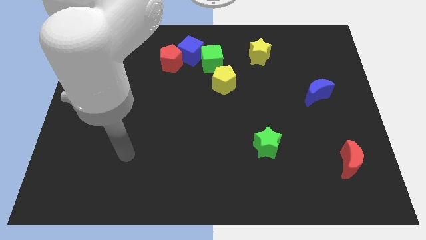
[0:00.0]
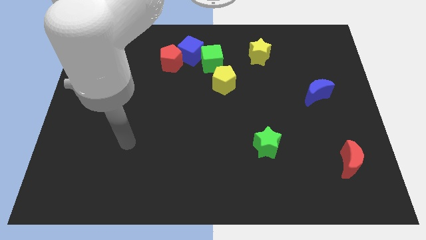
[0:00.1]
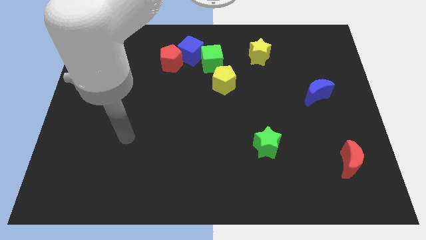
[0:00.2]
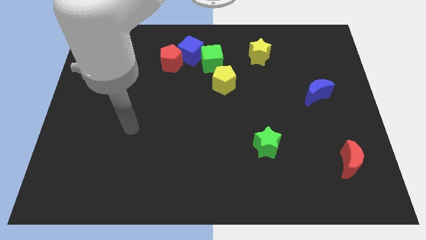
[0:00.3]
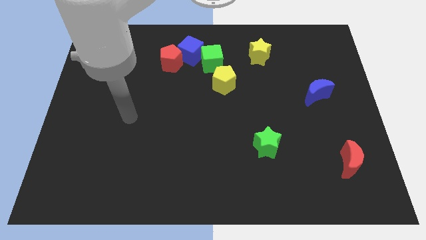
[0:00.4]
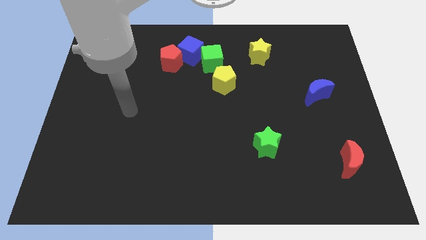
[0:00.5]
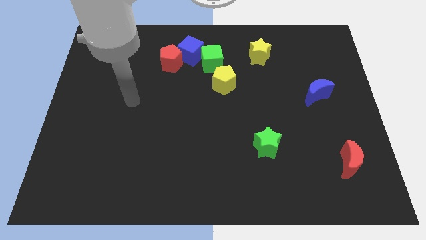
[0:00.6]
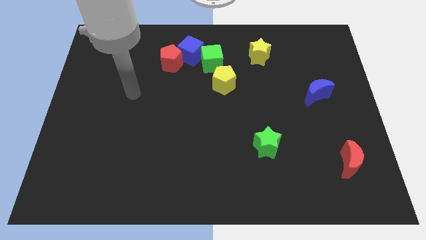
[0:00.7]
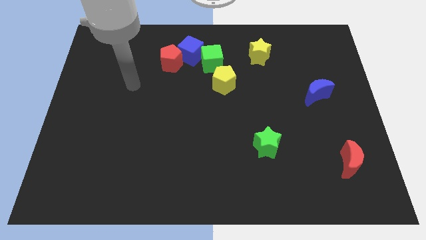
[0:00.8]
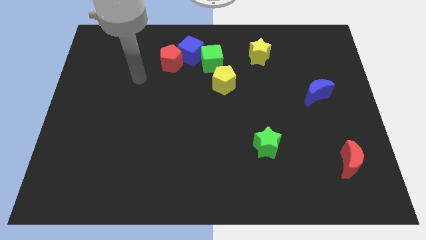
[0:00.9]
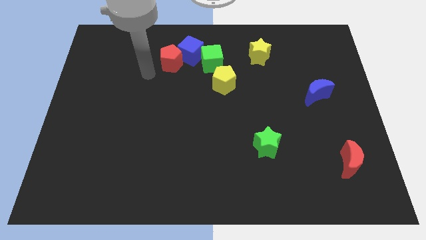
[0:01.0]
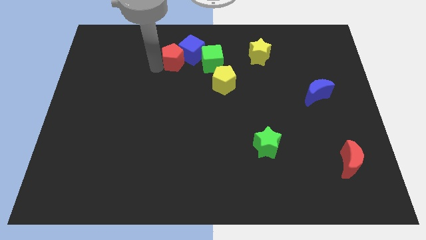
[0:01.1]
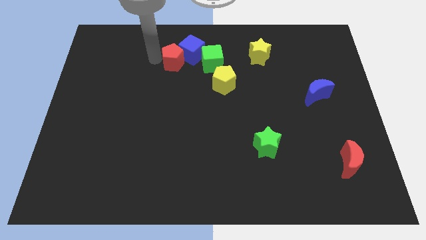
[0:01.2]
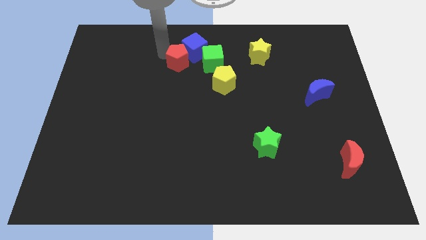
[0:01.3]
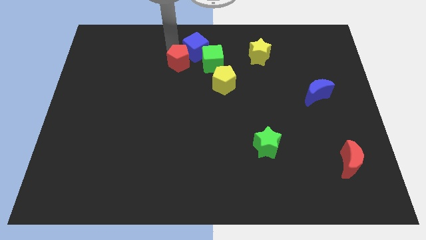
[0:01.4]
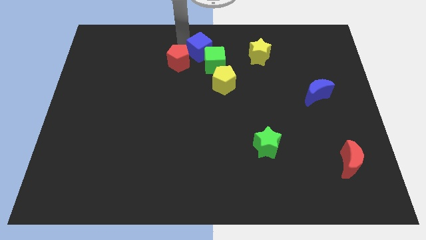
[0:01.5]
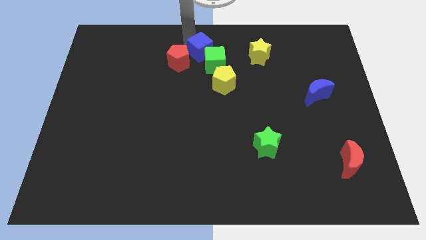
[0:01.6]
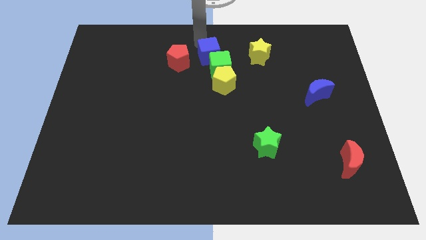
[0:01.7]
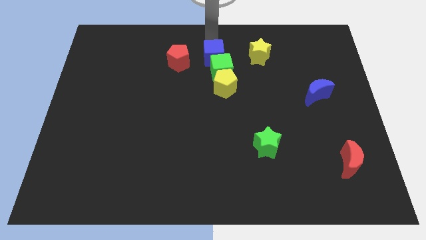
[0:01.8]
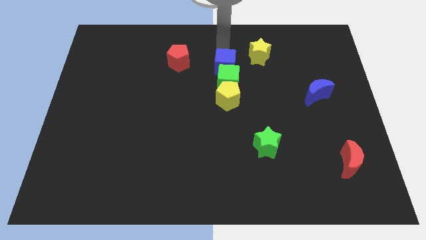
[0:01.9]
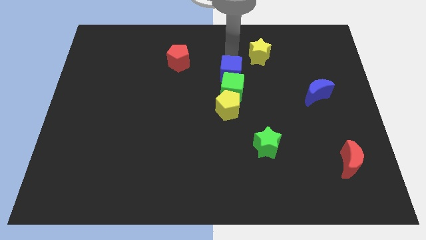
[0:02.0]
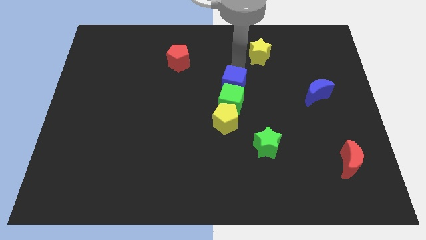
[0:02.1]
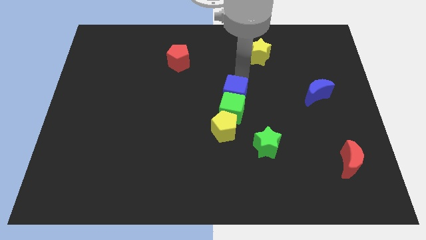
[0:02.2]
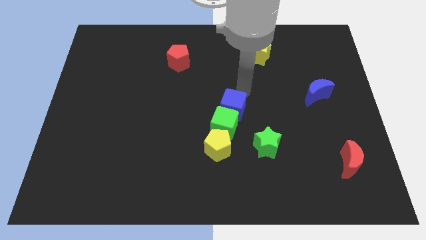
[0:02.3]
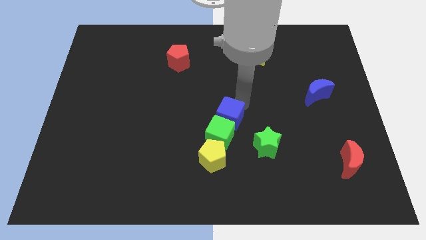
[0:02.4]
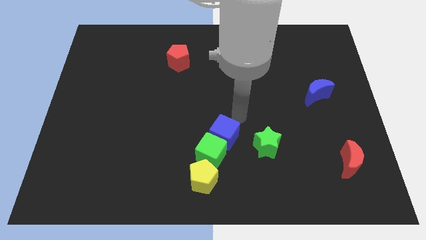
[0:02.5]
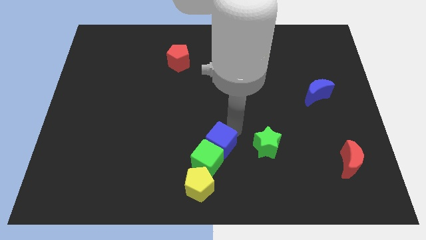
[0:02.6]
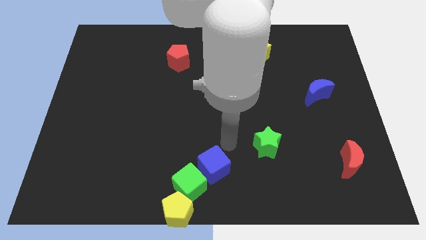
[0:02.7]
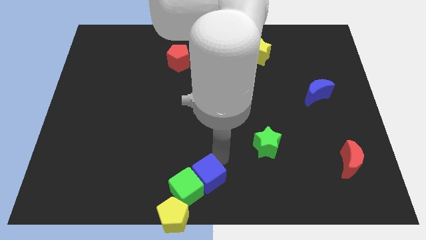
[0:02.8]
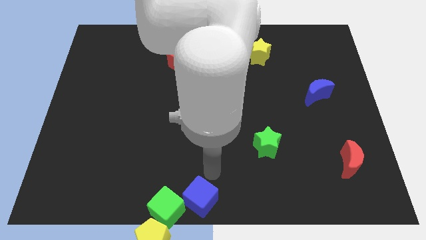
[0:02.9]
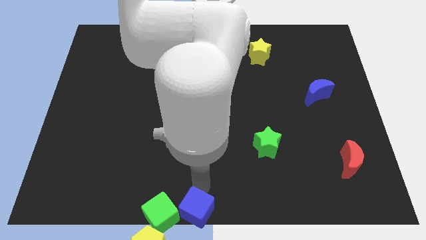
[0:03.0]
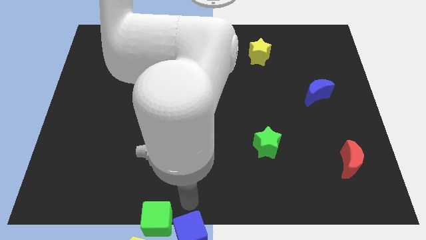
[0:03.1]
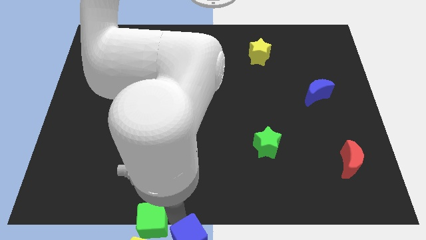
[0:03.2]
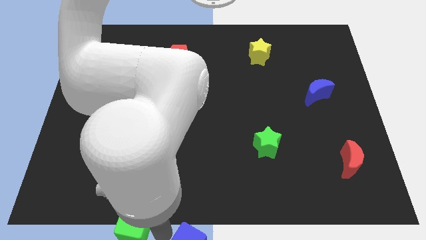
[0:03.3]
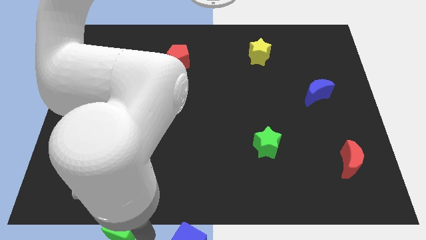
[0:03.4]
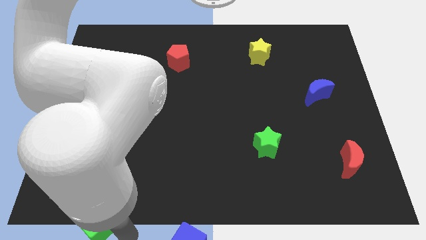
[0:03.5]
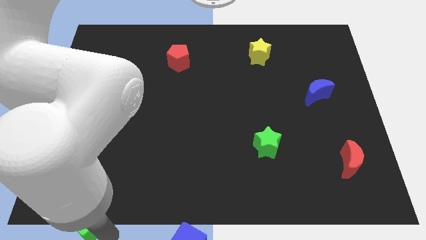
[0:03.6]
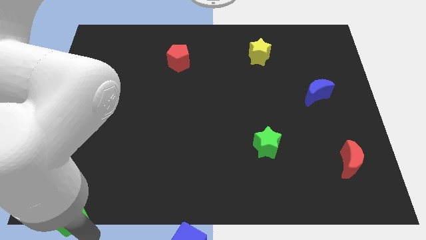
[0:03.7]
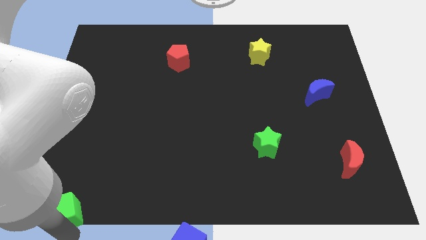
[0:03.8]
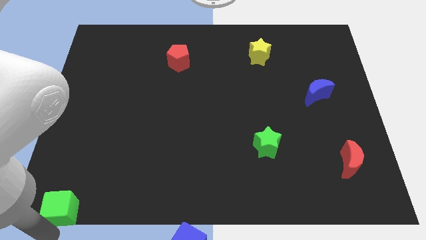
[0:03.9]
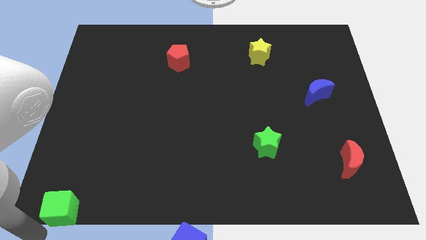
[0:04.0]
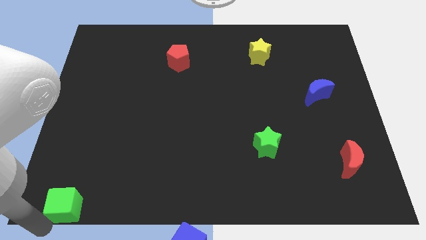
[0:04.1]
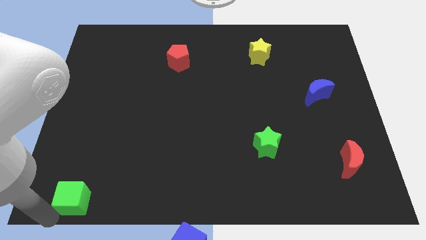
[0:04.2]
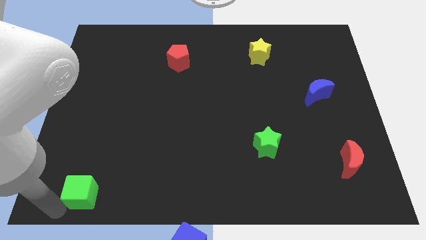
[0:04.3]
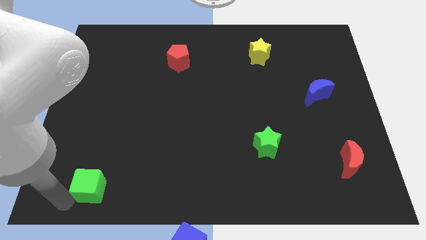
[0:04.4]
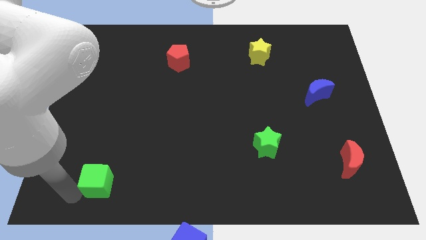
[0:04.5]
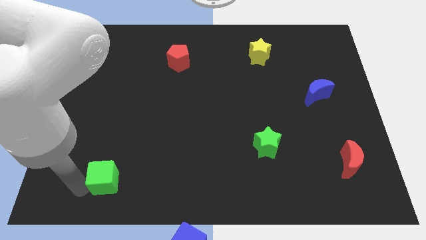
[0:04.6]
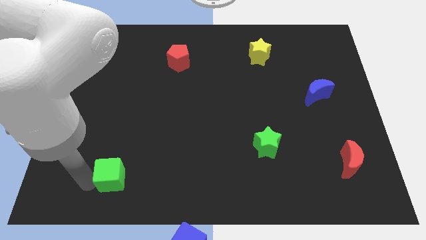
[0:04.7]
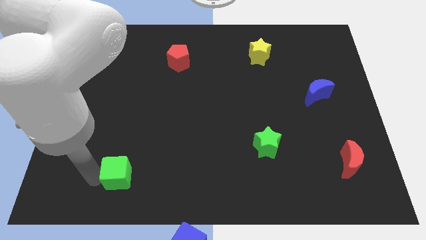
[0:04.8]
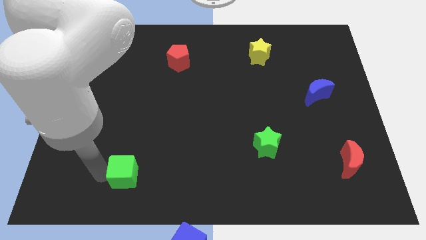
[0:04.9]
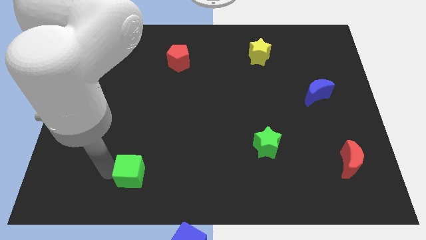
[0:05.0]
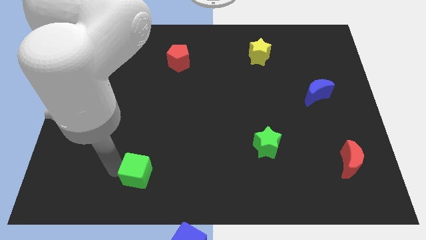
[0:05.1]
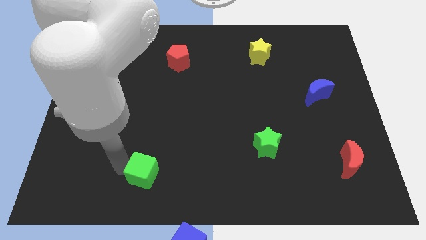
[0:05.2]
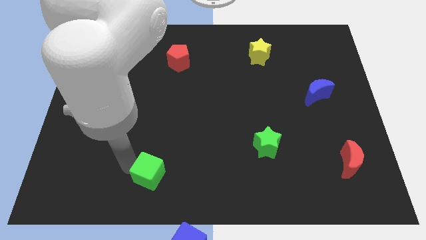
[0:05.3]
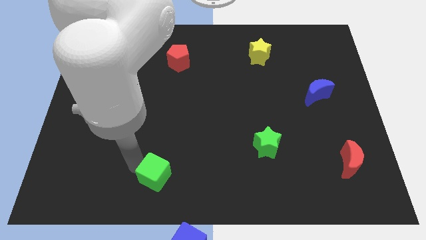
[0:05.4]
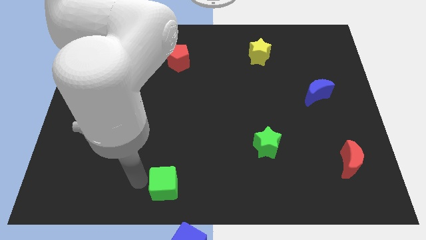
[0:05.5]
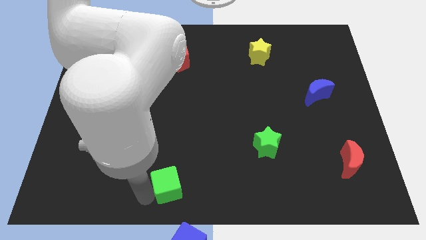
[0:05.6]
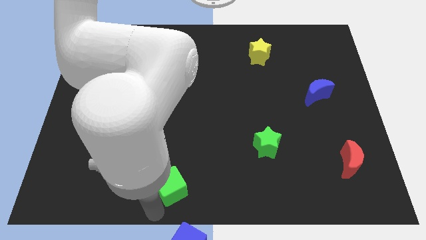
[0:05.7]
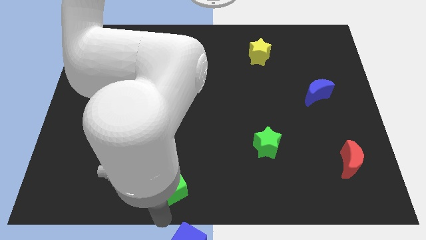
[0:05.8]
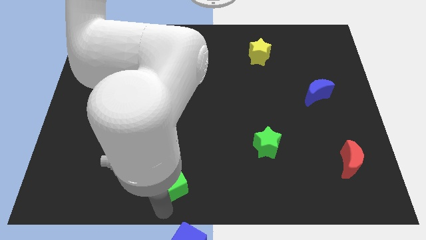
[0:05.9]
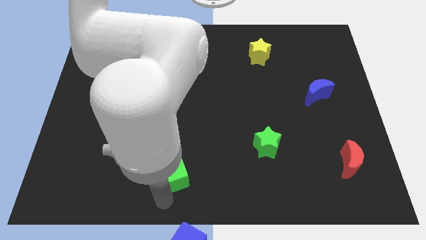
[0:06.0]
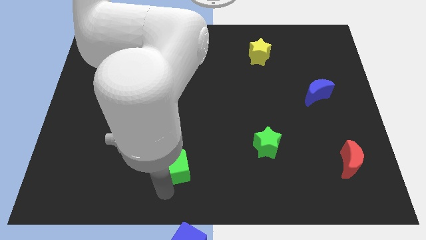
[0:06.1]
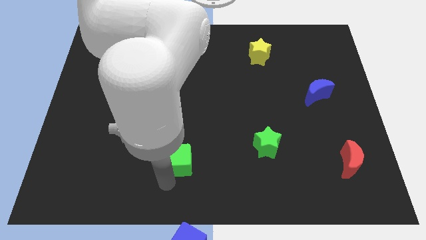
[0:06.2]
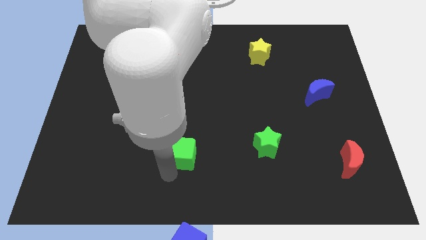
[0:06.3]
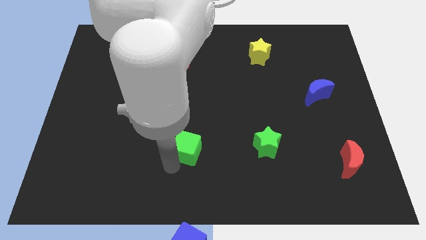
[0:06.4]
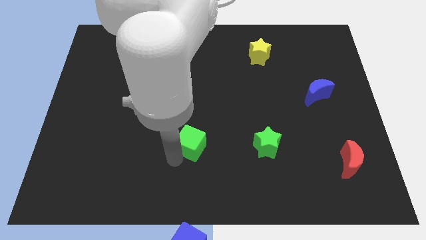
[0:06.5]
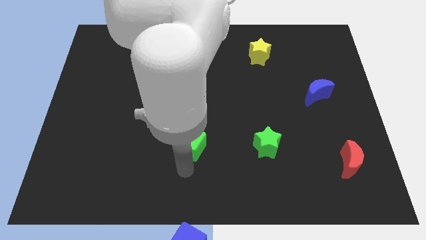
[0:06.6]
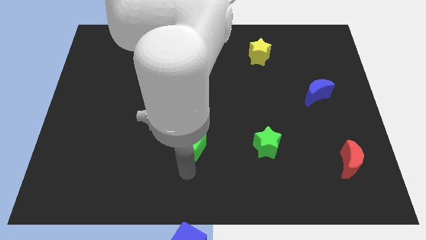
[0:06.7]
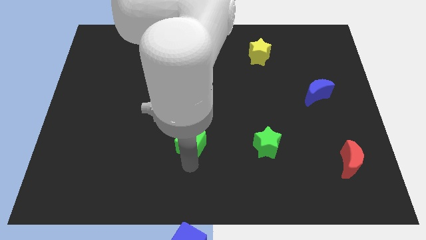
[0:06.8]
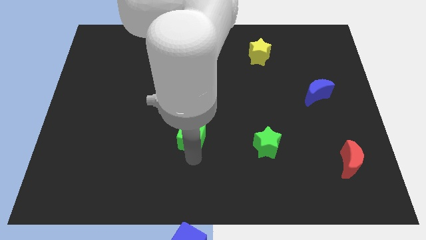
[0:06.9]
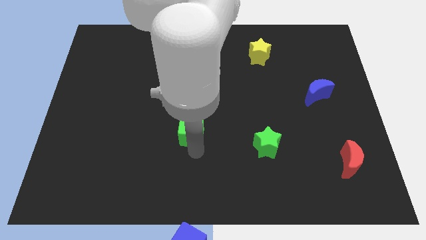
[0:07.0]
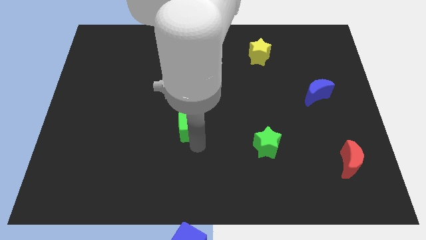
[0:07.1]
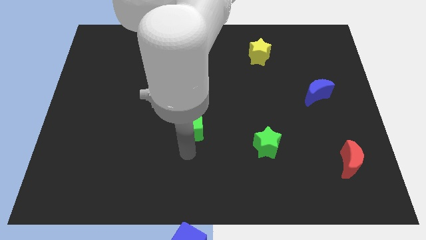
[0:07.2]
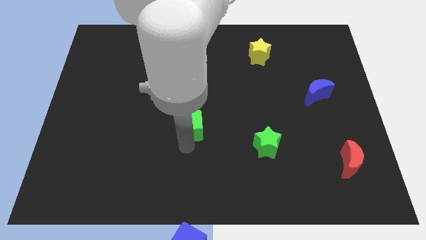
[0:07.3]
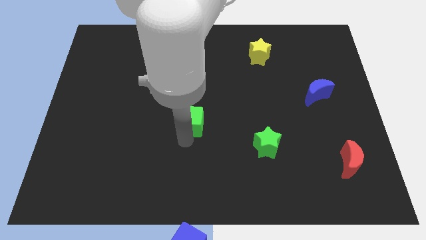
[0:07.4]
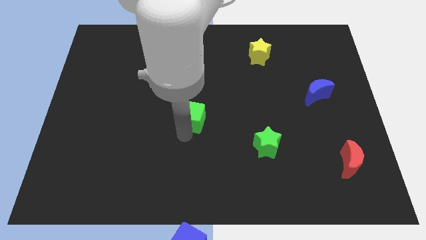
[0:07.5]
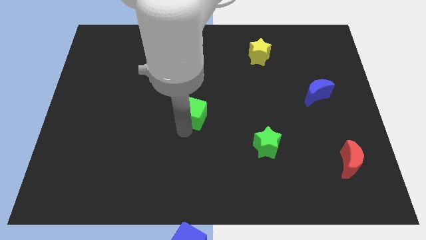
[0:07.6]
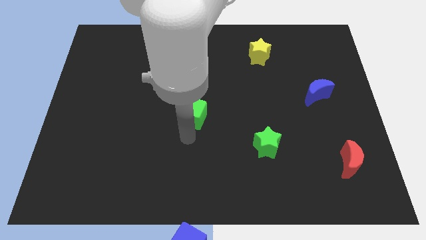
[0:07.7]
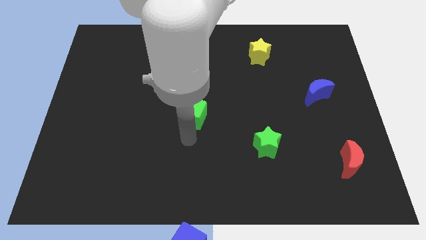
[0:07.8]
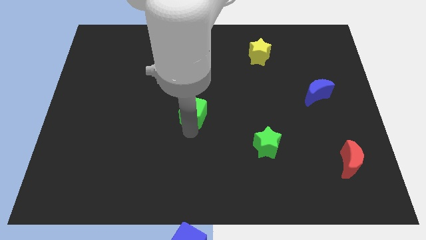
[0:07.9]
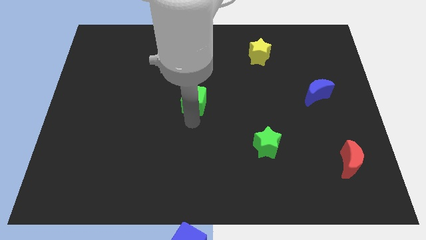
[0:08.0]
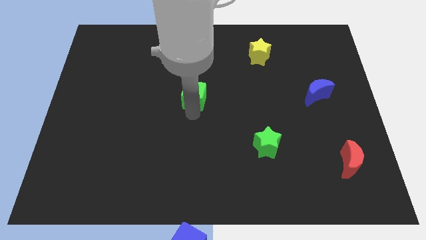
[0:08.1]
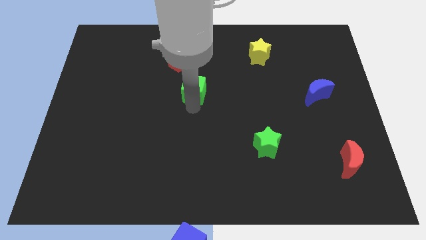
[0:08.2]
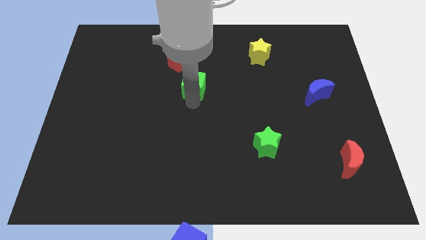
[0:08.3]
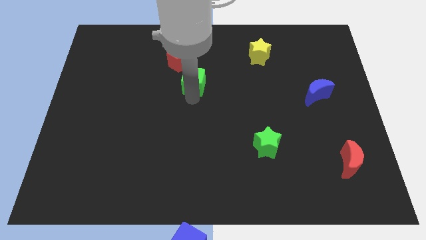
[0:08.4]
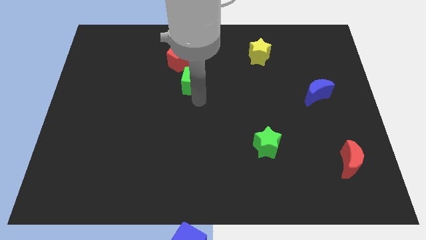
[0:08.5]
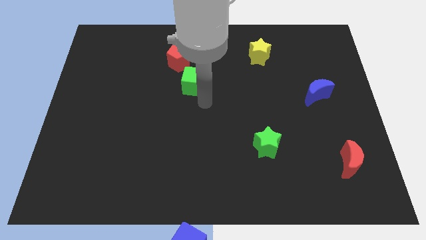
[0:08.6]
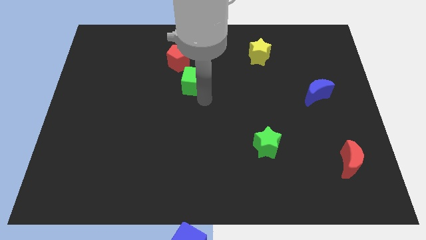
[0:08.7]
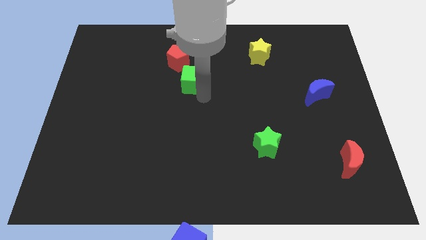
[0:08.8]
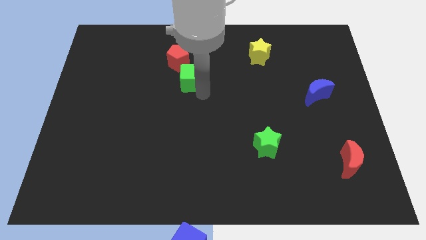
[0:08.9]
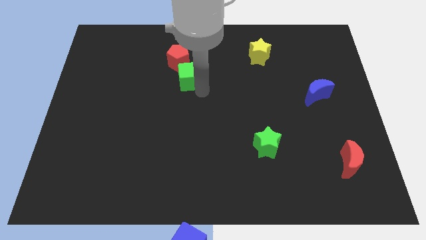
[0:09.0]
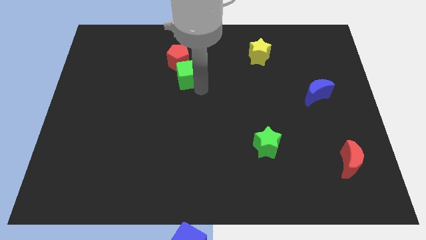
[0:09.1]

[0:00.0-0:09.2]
move the green cube close to the red pentagon
